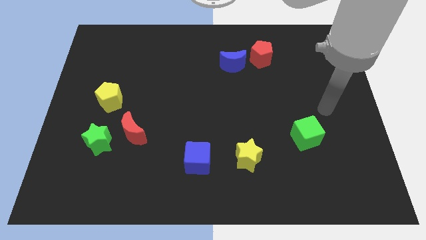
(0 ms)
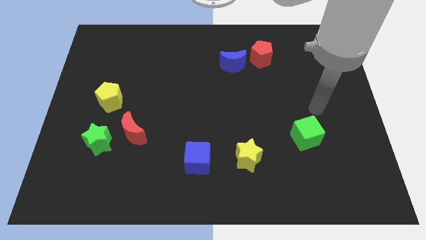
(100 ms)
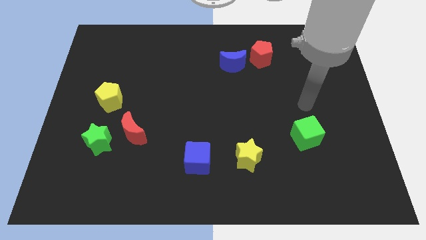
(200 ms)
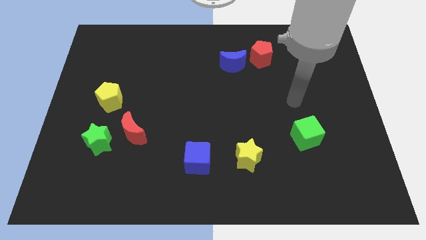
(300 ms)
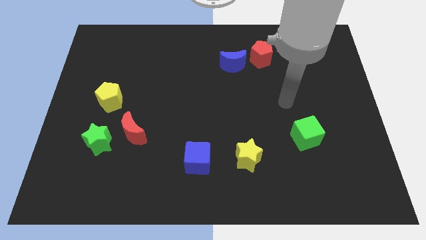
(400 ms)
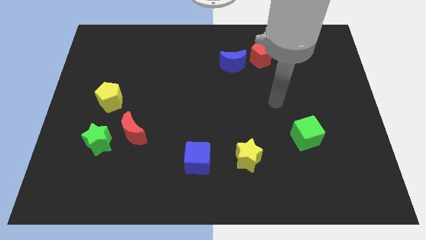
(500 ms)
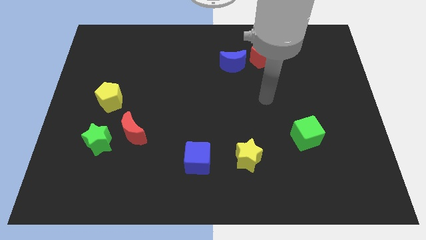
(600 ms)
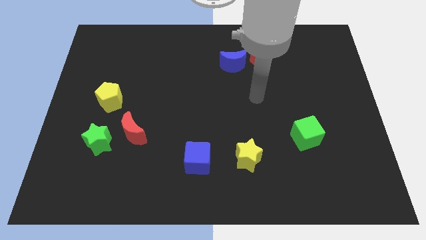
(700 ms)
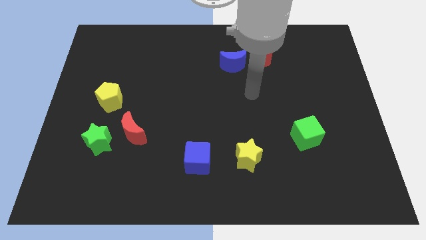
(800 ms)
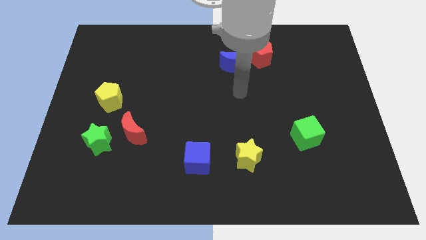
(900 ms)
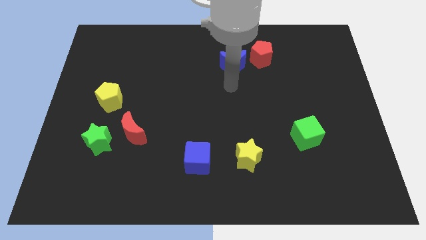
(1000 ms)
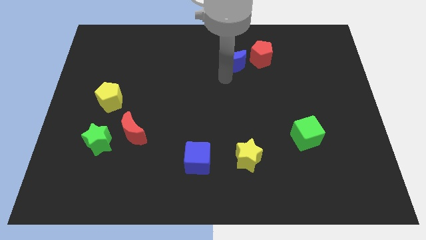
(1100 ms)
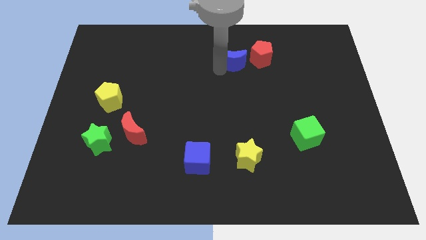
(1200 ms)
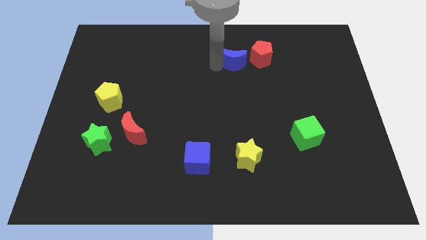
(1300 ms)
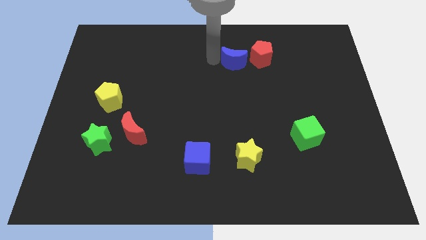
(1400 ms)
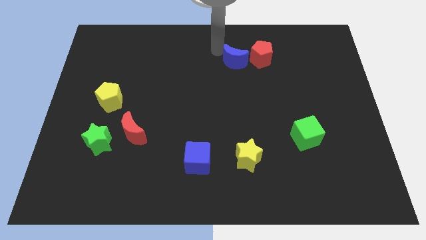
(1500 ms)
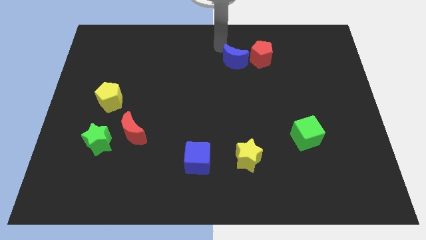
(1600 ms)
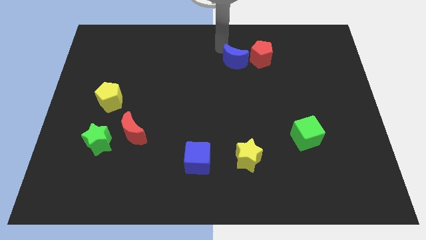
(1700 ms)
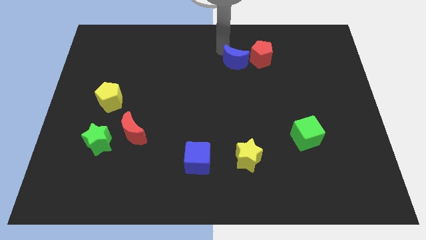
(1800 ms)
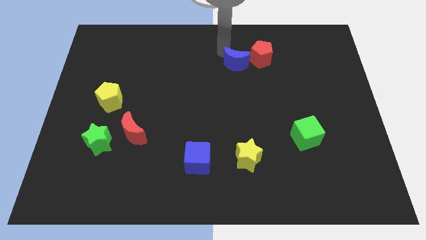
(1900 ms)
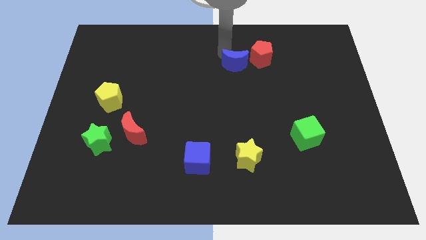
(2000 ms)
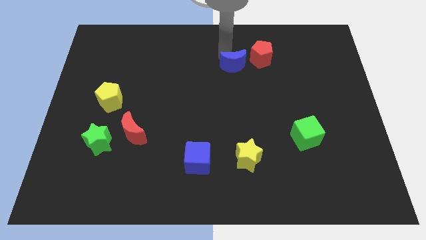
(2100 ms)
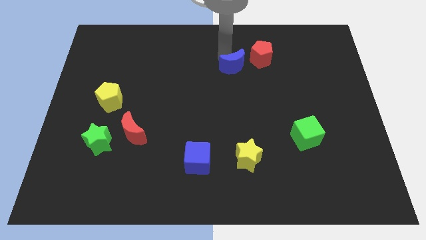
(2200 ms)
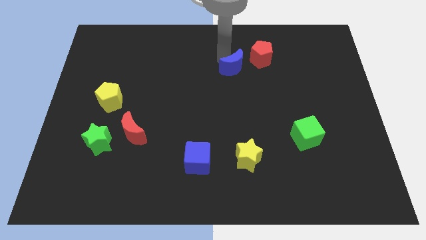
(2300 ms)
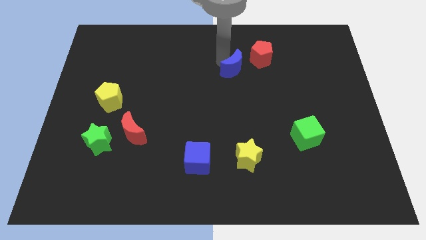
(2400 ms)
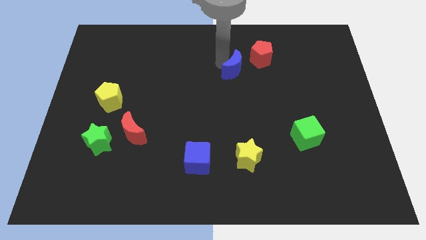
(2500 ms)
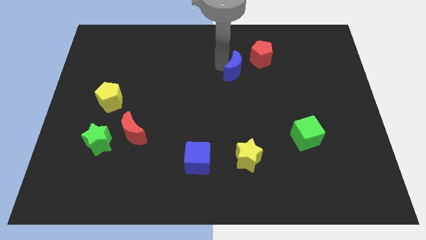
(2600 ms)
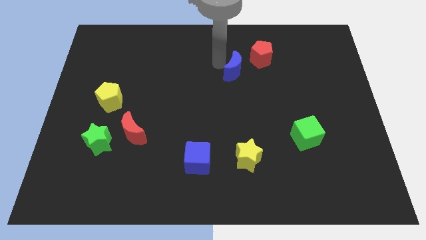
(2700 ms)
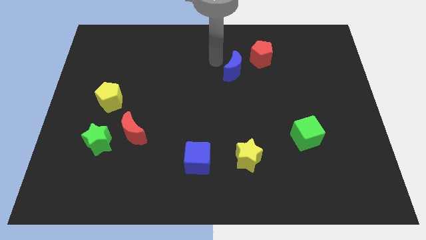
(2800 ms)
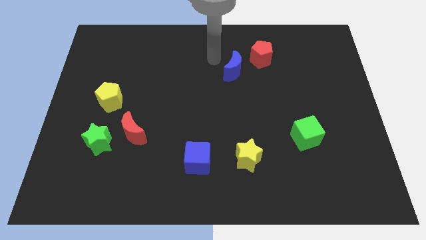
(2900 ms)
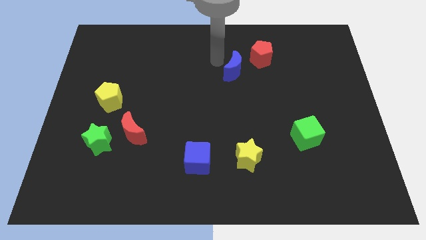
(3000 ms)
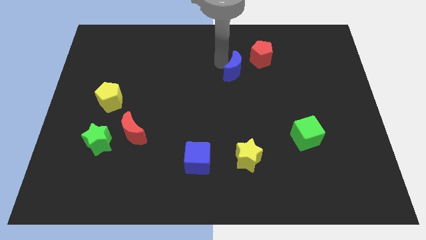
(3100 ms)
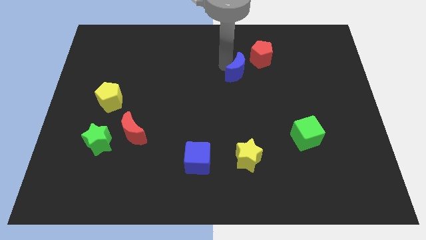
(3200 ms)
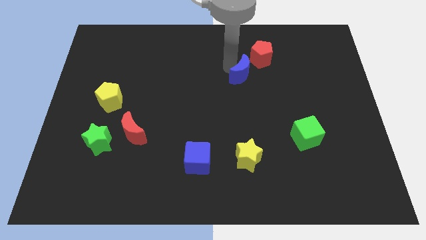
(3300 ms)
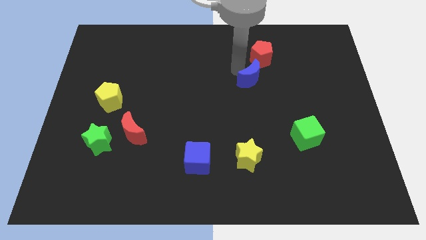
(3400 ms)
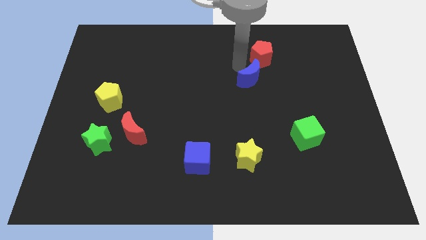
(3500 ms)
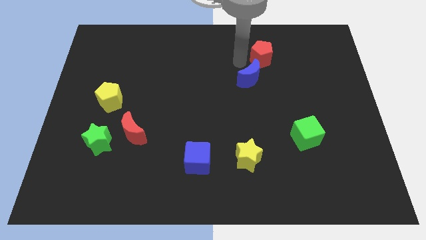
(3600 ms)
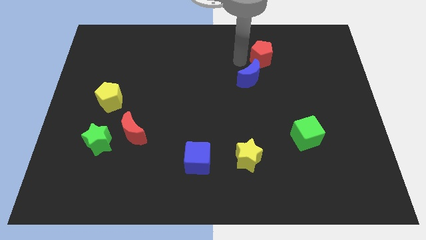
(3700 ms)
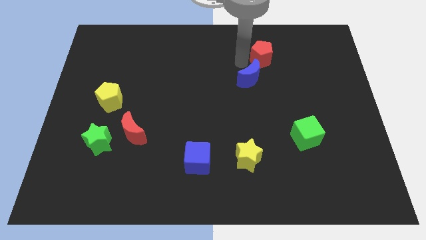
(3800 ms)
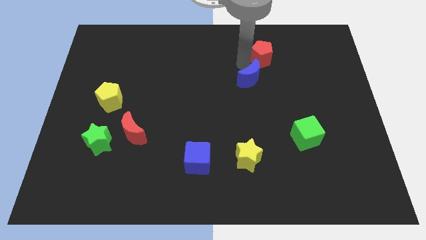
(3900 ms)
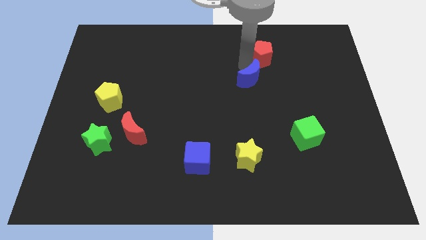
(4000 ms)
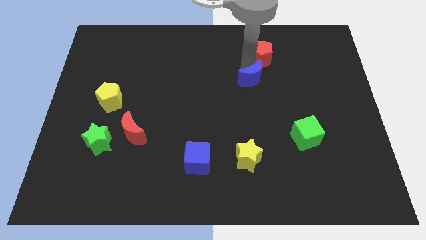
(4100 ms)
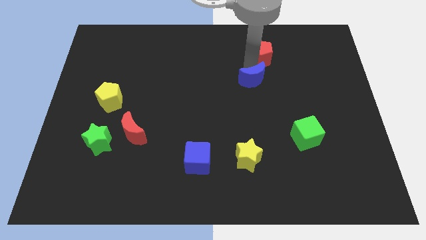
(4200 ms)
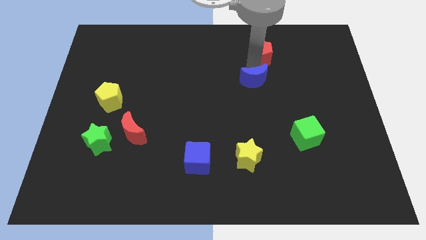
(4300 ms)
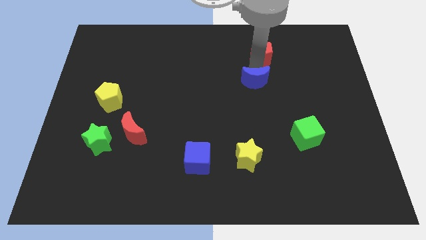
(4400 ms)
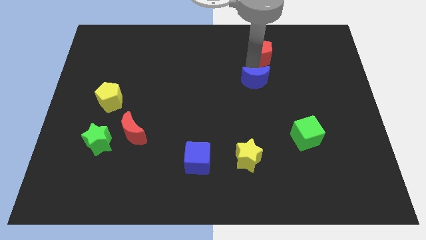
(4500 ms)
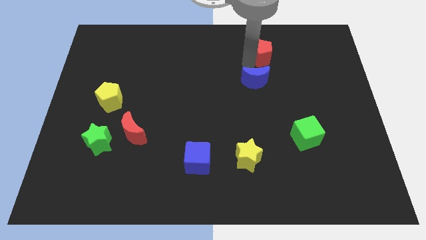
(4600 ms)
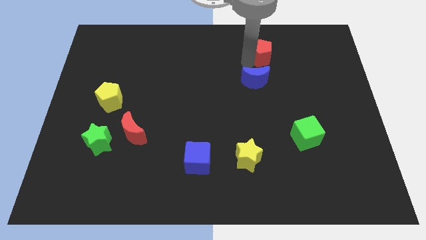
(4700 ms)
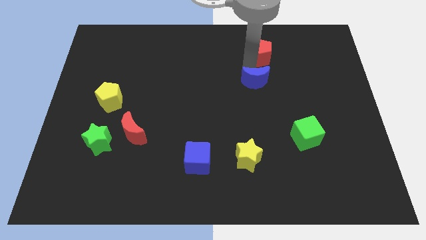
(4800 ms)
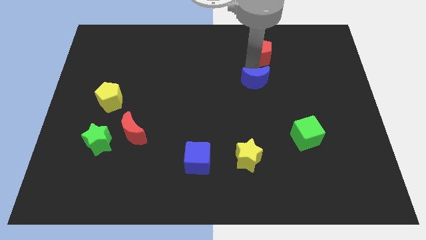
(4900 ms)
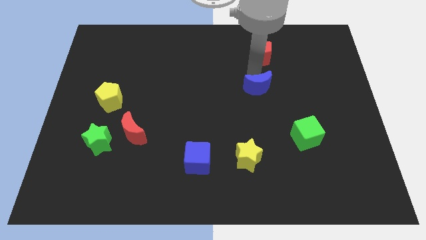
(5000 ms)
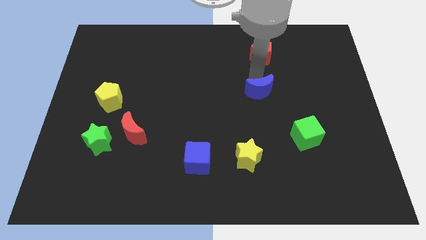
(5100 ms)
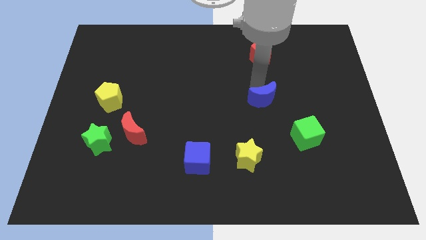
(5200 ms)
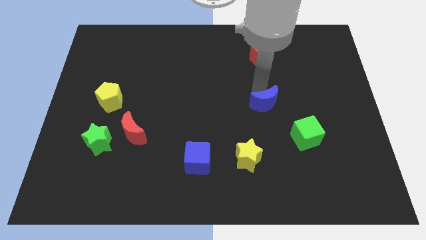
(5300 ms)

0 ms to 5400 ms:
slide the blue moon to the top left side of the green cube

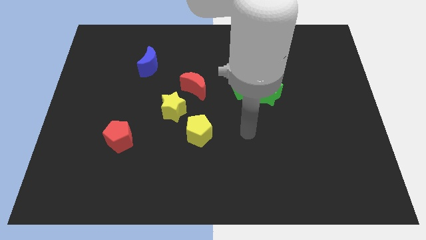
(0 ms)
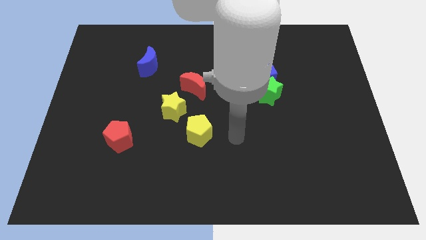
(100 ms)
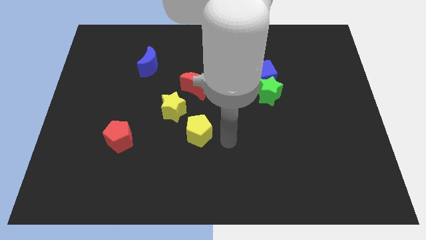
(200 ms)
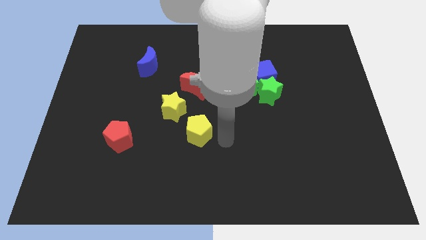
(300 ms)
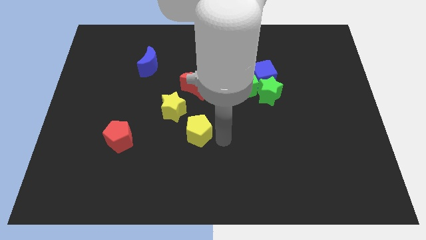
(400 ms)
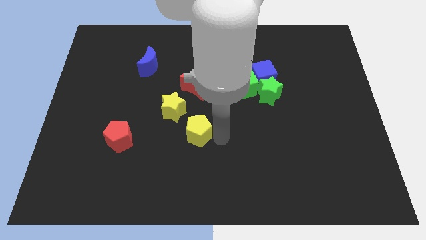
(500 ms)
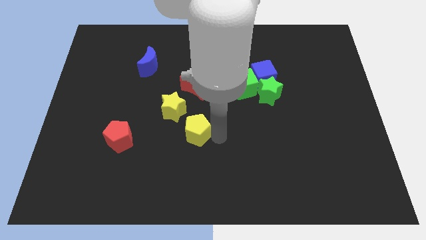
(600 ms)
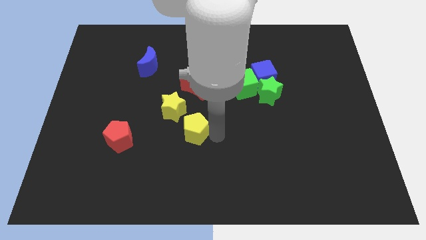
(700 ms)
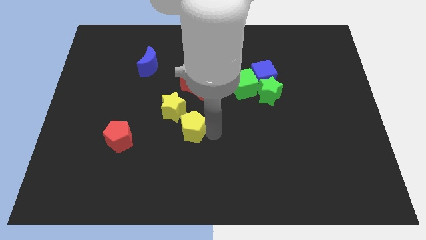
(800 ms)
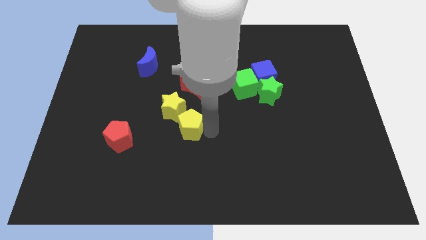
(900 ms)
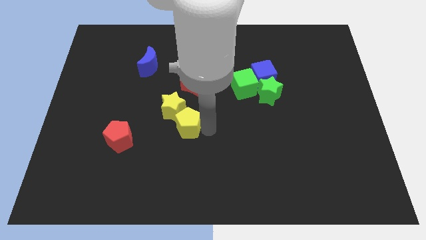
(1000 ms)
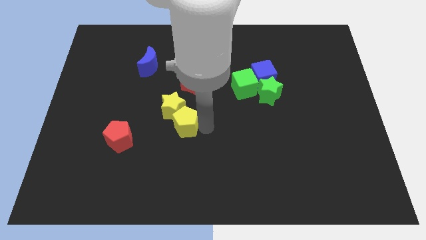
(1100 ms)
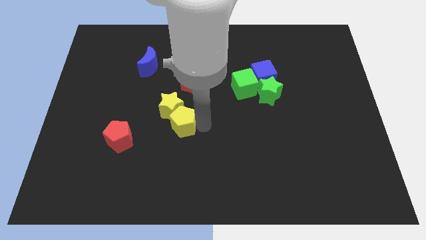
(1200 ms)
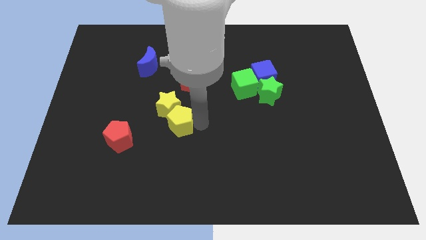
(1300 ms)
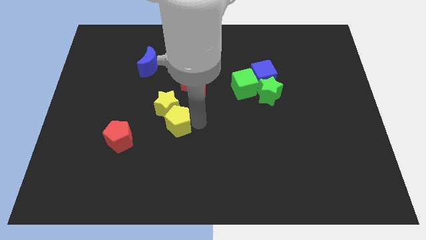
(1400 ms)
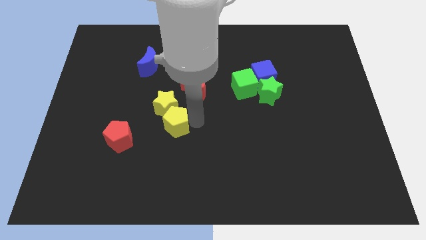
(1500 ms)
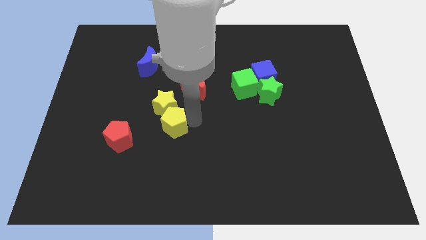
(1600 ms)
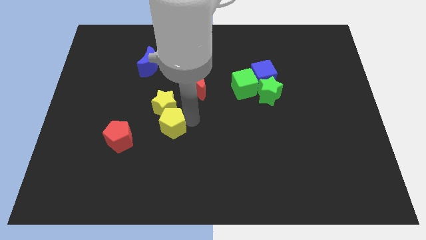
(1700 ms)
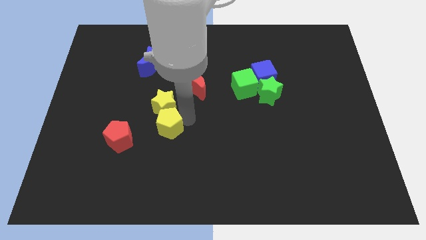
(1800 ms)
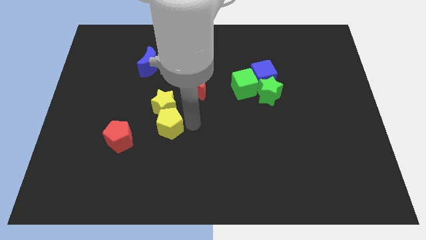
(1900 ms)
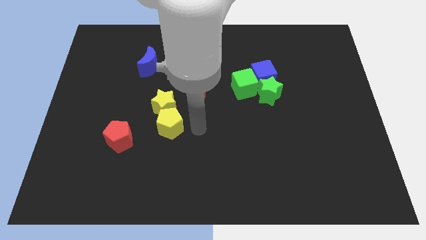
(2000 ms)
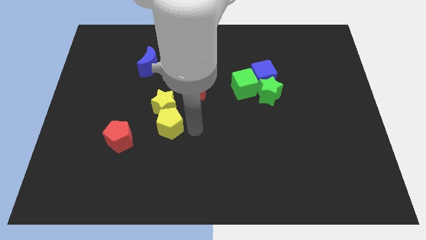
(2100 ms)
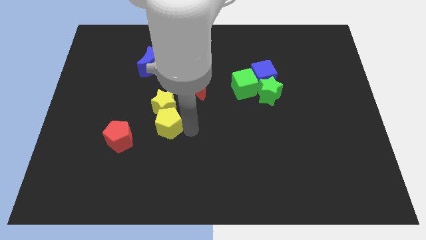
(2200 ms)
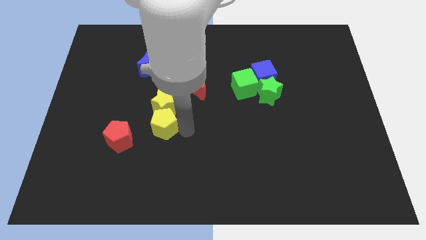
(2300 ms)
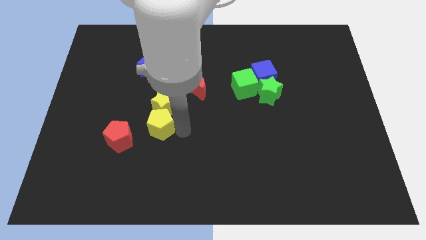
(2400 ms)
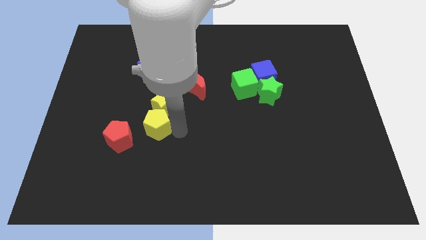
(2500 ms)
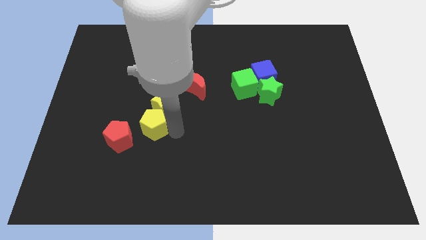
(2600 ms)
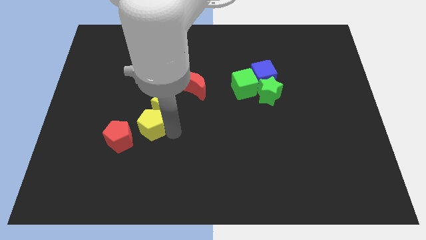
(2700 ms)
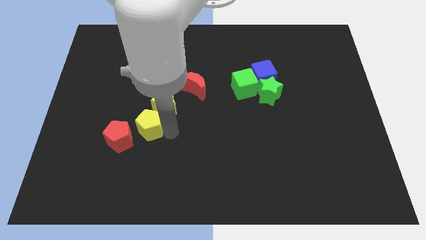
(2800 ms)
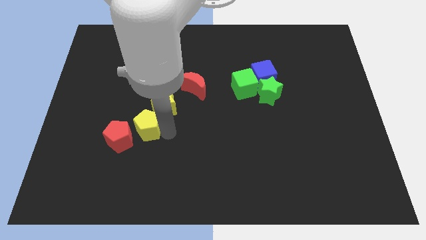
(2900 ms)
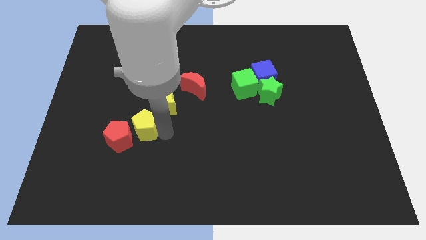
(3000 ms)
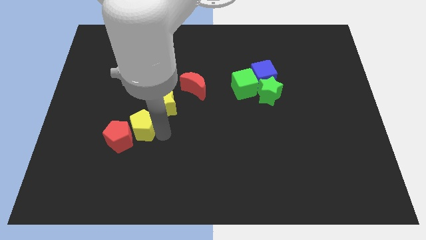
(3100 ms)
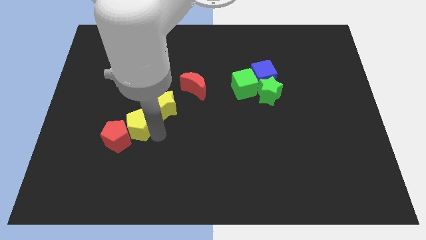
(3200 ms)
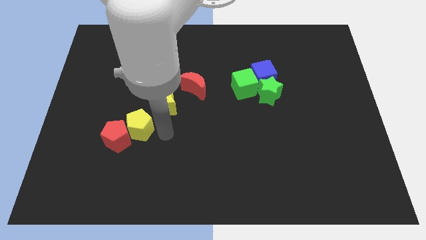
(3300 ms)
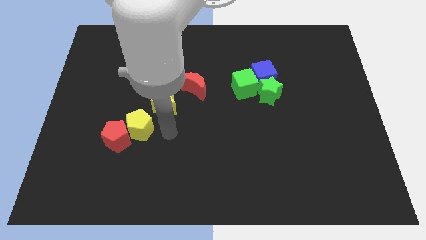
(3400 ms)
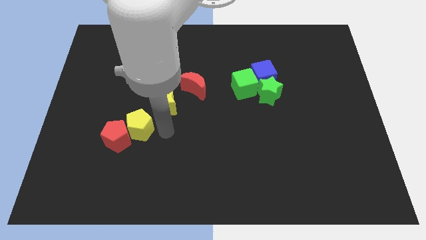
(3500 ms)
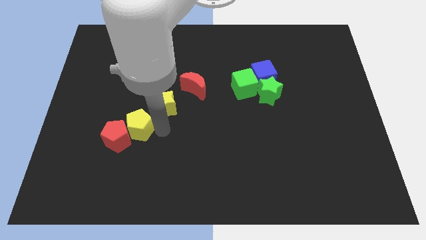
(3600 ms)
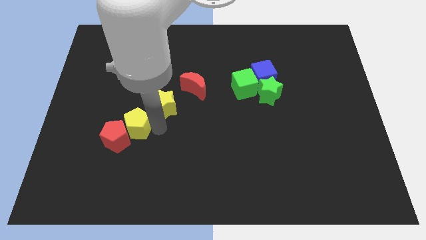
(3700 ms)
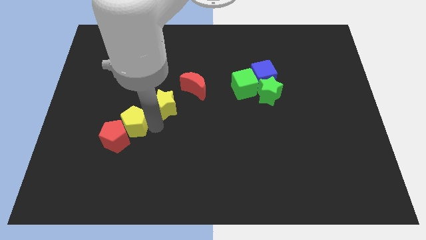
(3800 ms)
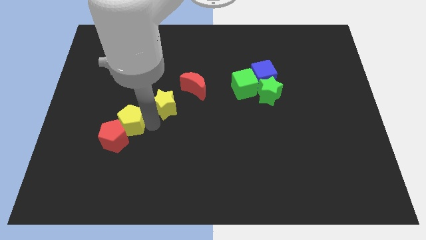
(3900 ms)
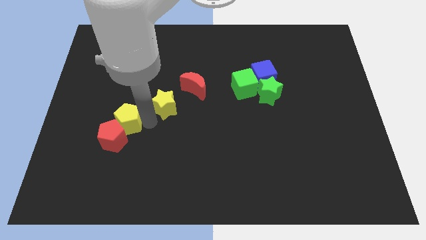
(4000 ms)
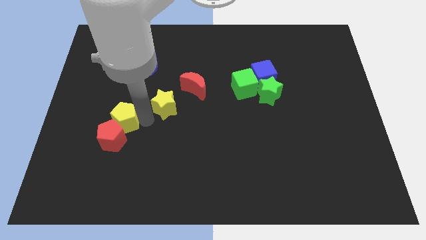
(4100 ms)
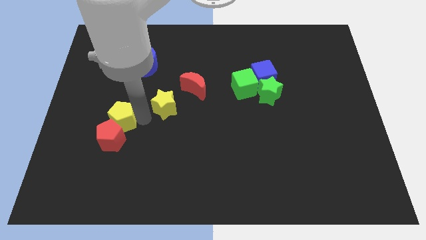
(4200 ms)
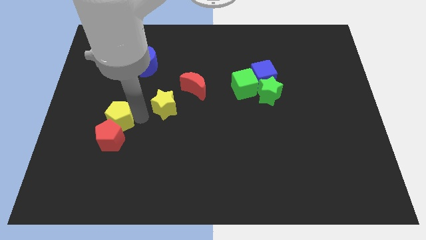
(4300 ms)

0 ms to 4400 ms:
move the yellow pentagon to the top left side of the red pentagon
